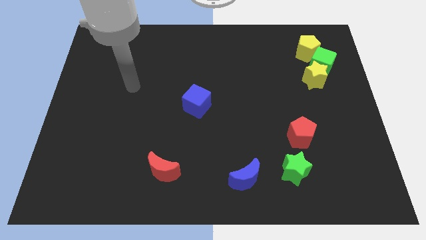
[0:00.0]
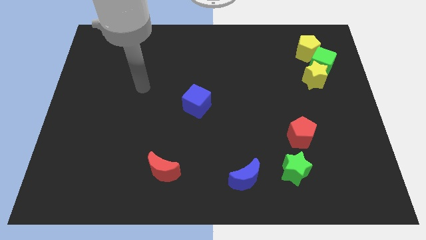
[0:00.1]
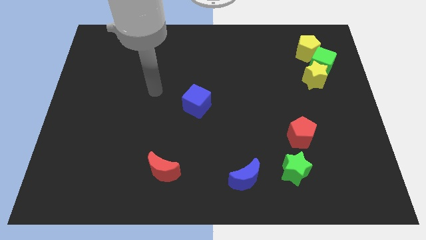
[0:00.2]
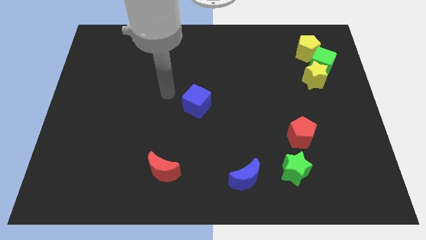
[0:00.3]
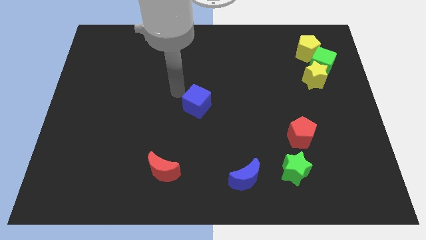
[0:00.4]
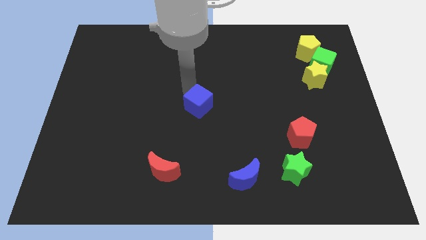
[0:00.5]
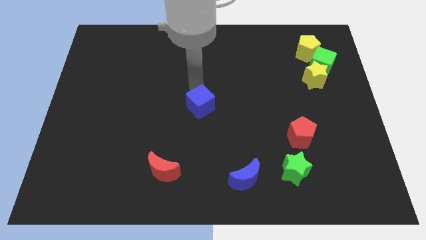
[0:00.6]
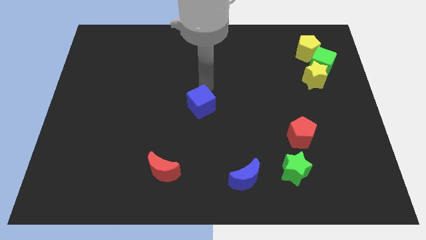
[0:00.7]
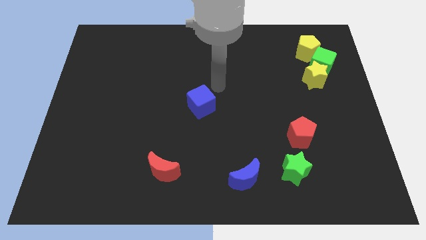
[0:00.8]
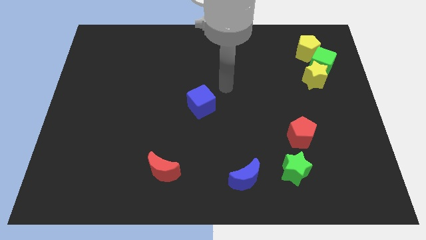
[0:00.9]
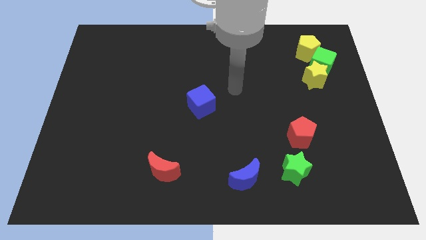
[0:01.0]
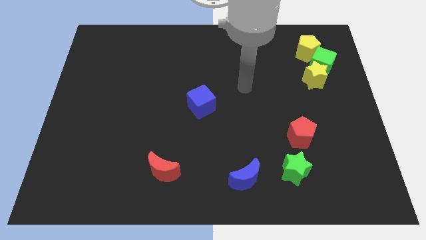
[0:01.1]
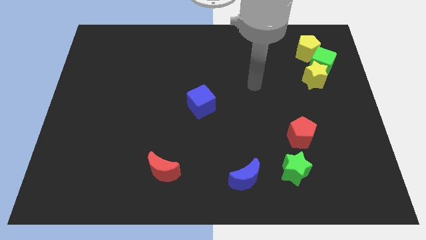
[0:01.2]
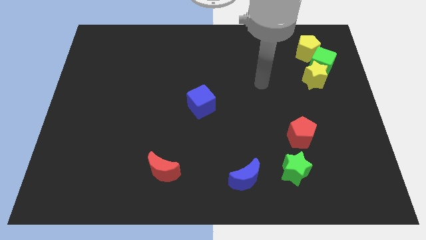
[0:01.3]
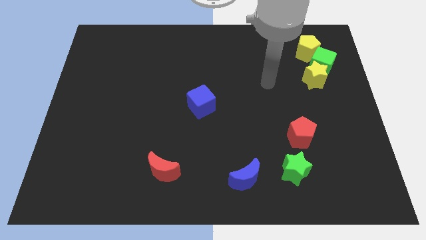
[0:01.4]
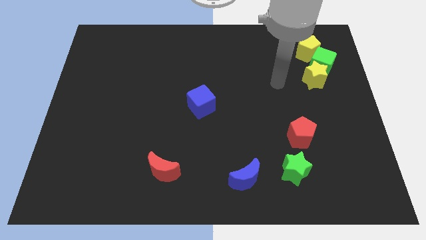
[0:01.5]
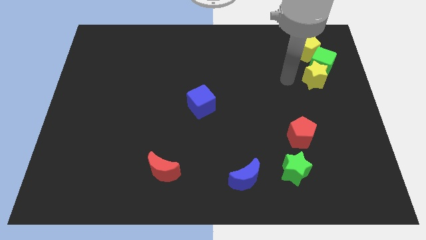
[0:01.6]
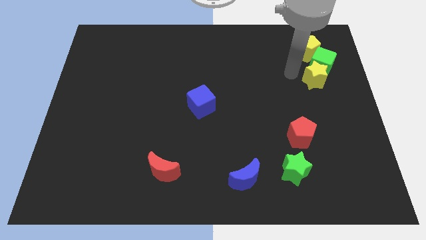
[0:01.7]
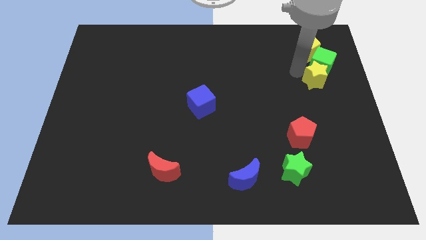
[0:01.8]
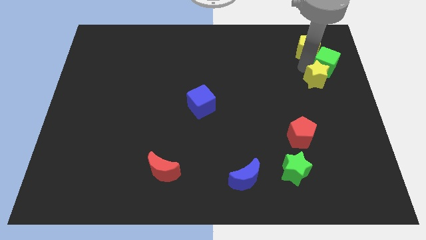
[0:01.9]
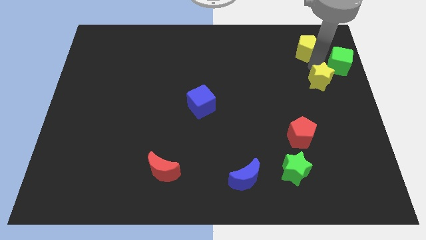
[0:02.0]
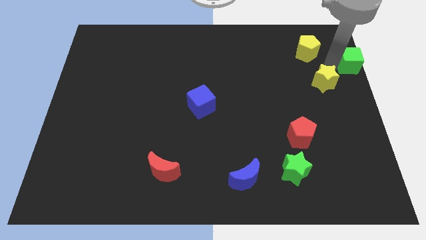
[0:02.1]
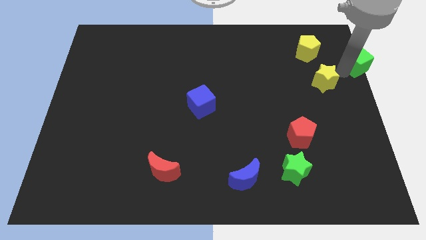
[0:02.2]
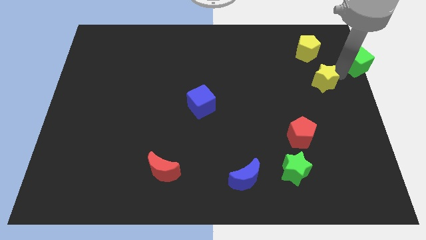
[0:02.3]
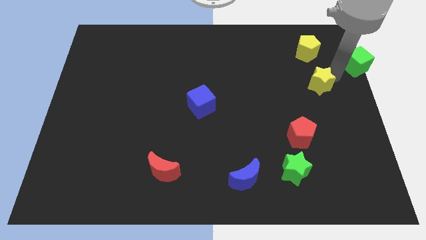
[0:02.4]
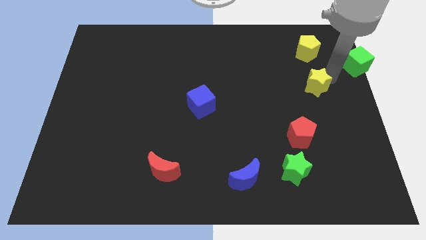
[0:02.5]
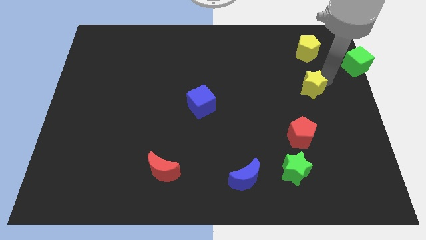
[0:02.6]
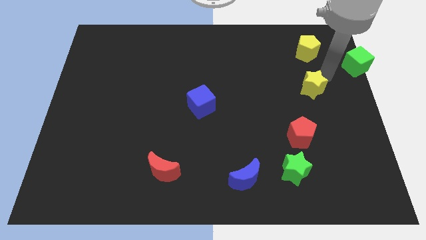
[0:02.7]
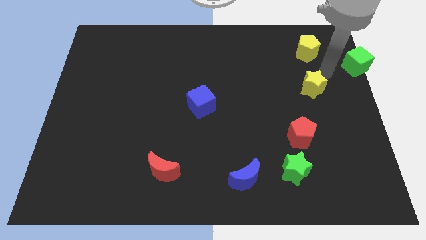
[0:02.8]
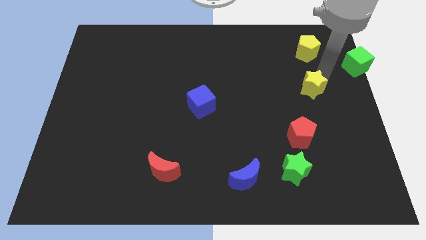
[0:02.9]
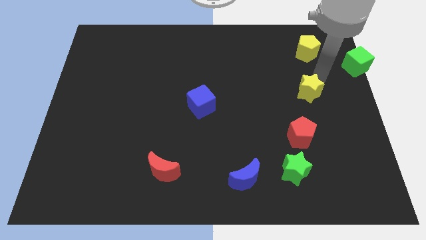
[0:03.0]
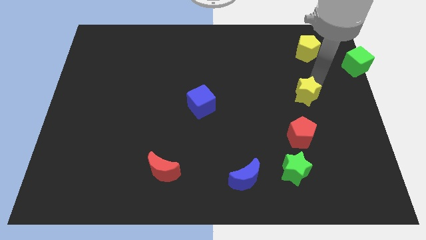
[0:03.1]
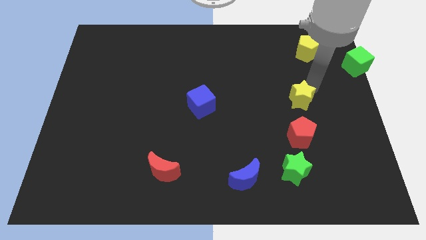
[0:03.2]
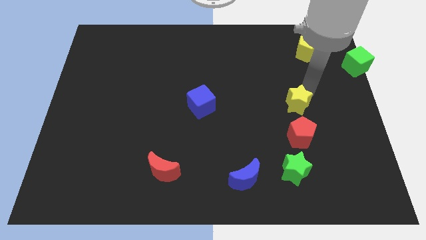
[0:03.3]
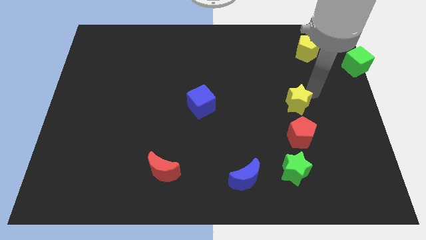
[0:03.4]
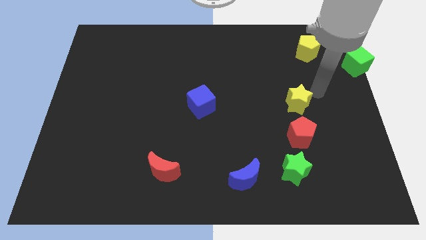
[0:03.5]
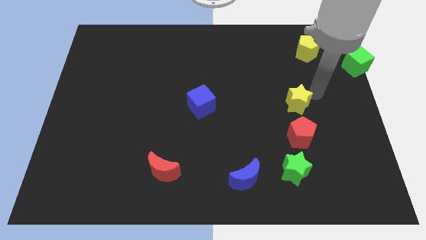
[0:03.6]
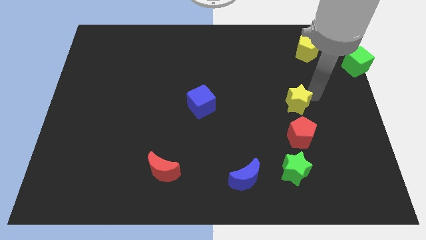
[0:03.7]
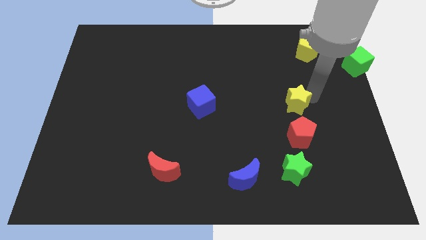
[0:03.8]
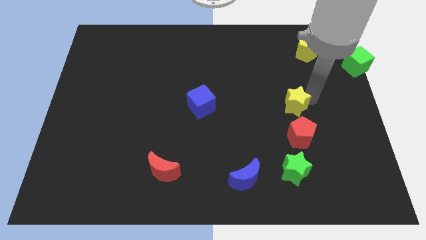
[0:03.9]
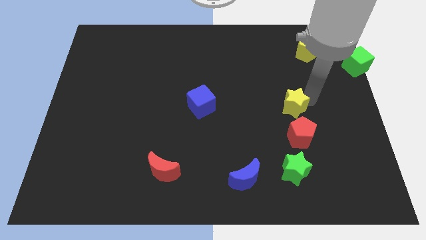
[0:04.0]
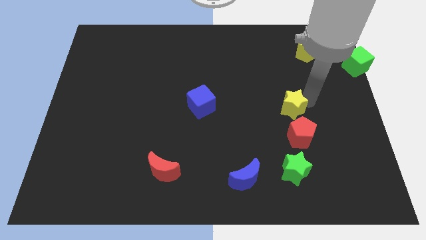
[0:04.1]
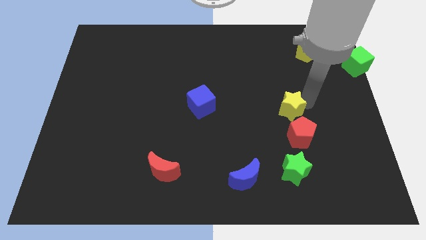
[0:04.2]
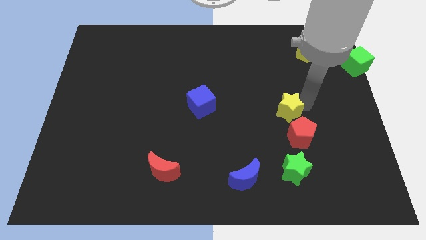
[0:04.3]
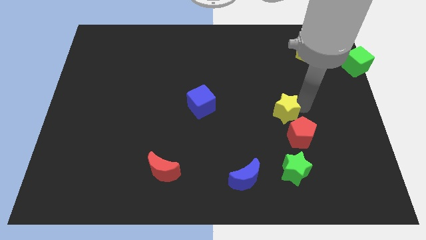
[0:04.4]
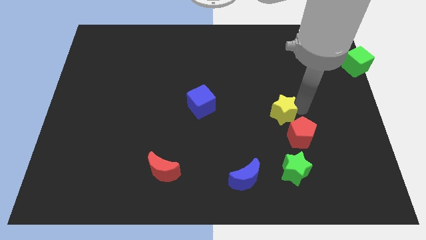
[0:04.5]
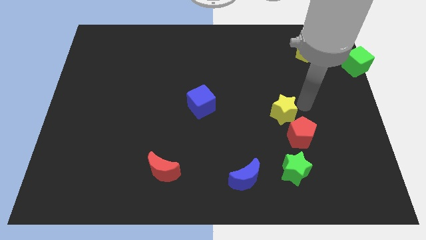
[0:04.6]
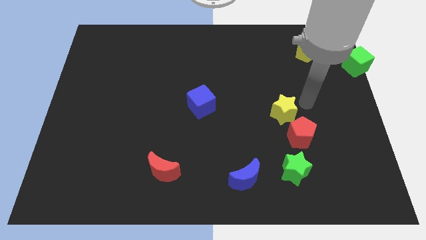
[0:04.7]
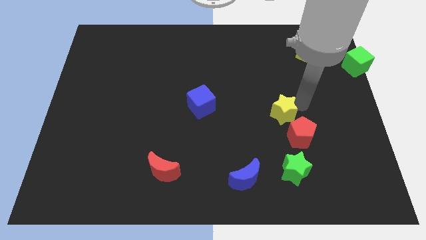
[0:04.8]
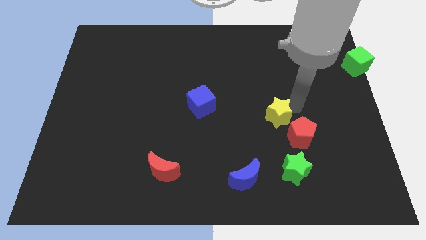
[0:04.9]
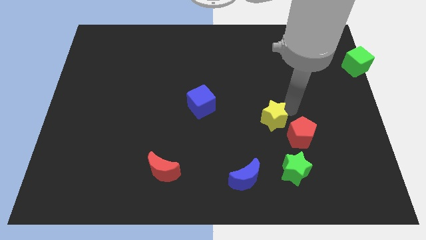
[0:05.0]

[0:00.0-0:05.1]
put the yellow star left of the red pentagon

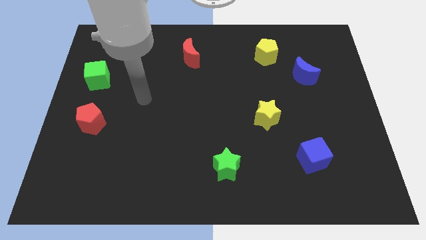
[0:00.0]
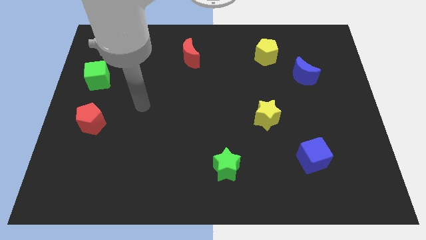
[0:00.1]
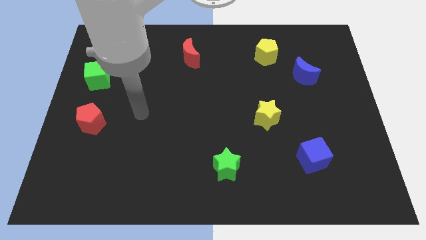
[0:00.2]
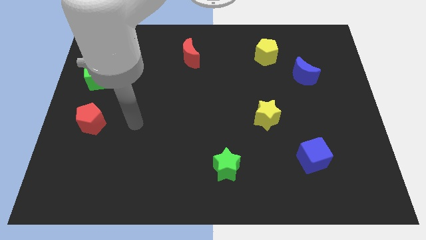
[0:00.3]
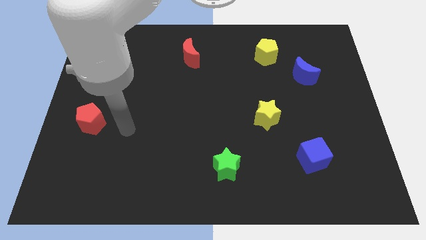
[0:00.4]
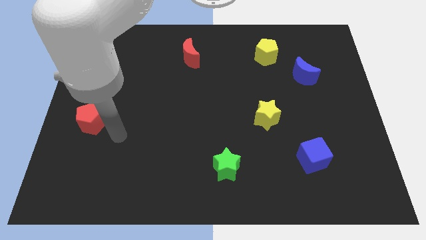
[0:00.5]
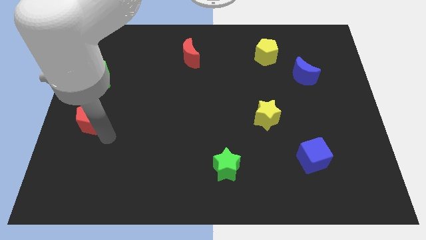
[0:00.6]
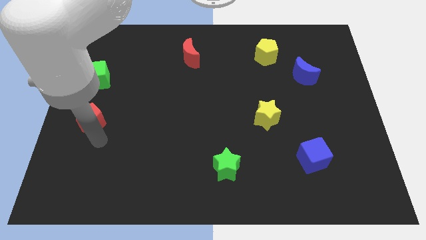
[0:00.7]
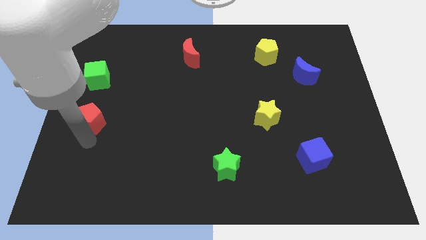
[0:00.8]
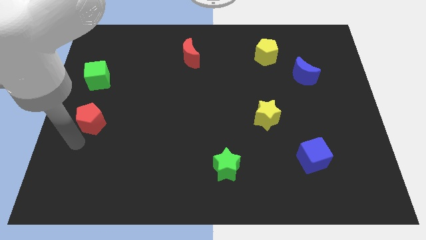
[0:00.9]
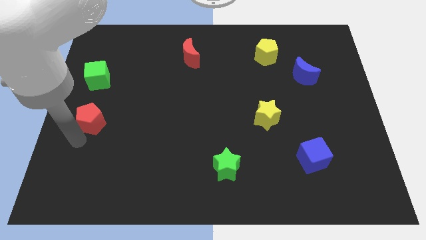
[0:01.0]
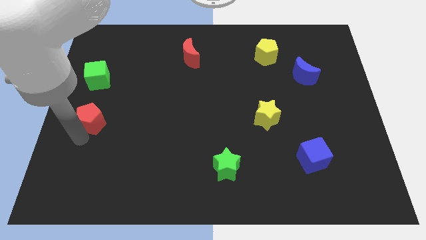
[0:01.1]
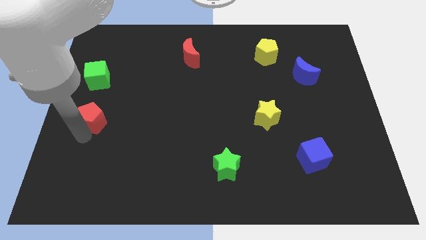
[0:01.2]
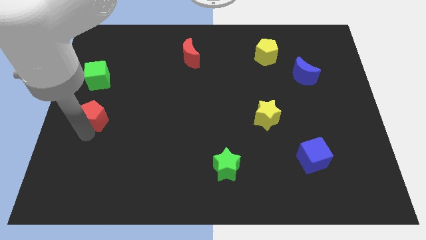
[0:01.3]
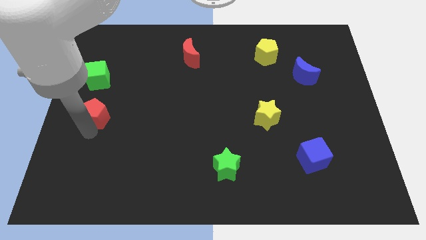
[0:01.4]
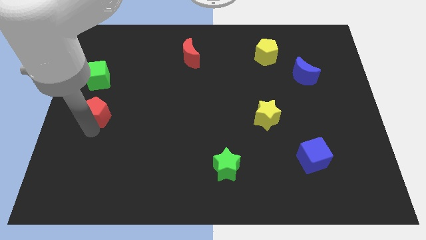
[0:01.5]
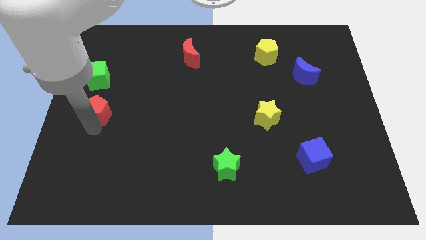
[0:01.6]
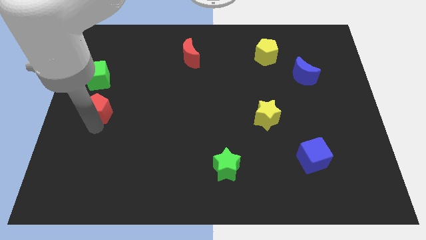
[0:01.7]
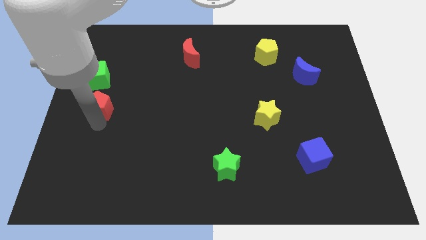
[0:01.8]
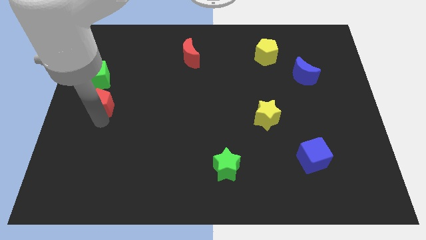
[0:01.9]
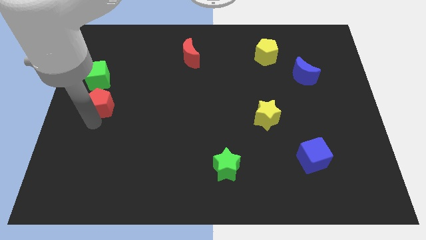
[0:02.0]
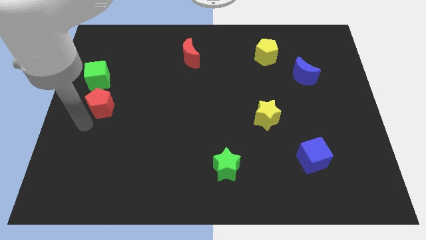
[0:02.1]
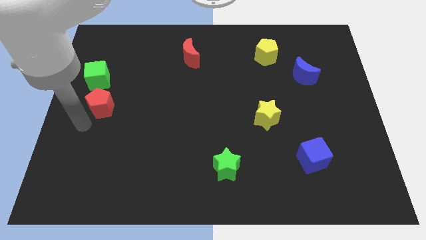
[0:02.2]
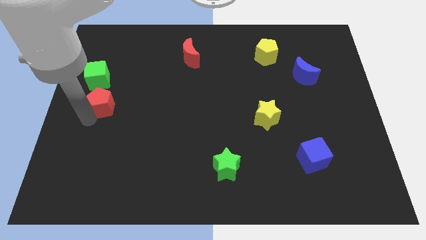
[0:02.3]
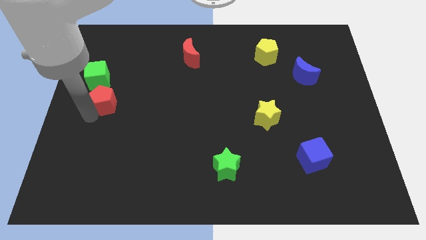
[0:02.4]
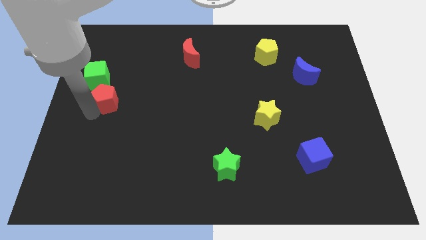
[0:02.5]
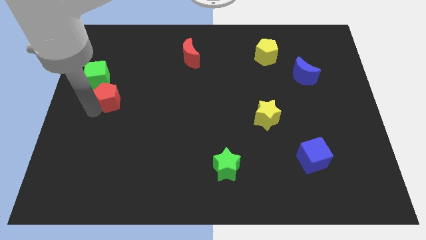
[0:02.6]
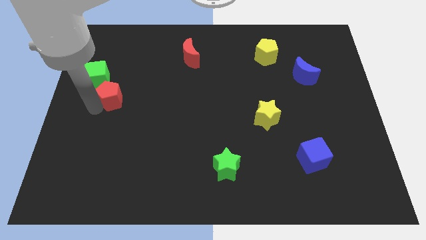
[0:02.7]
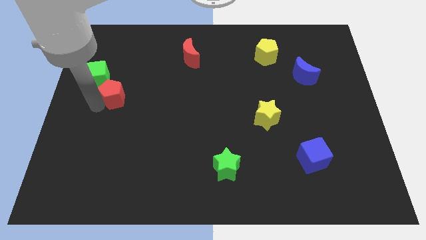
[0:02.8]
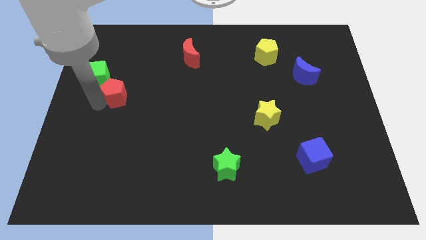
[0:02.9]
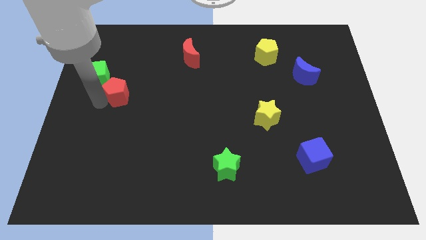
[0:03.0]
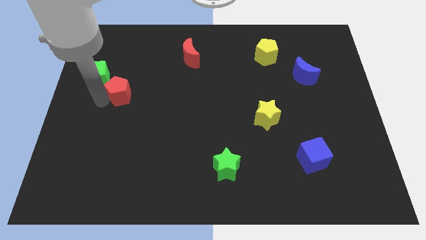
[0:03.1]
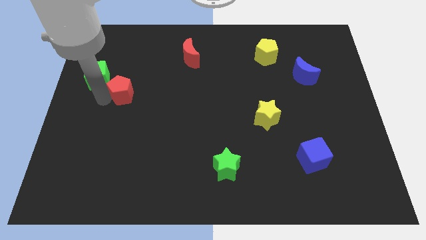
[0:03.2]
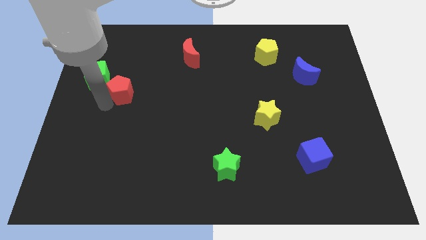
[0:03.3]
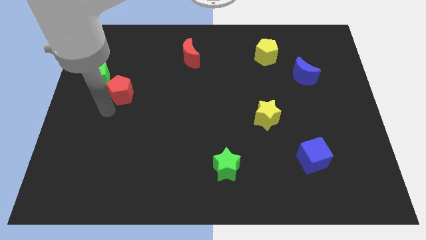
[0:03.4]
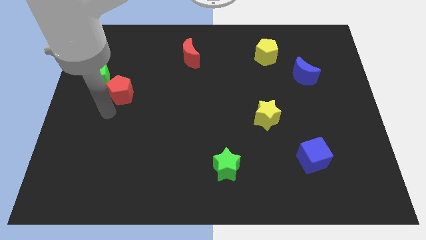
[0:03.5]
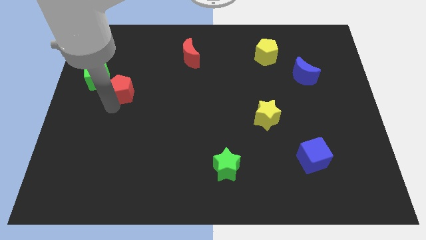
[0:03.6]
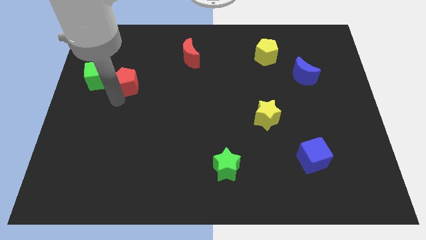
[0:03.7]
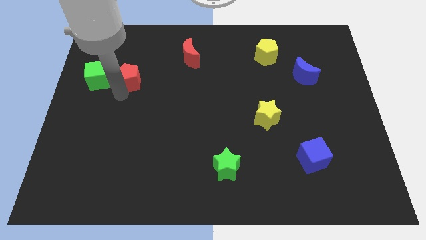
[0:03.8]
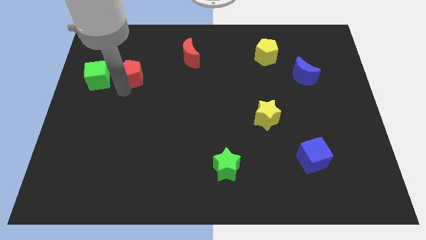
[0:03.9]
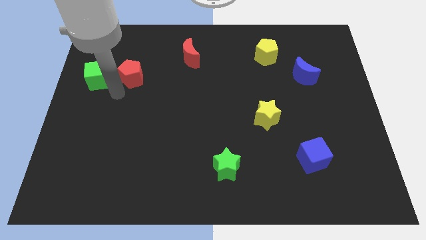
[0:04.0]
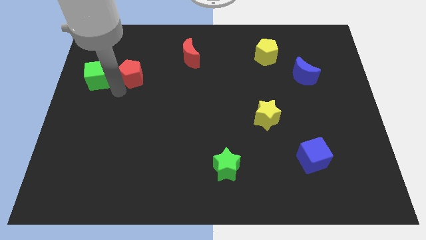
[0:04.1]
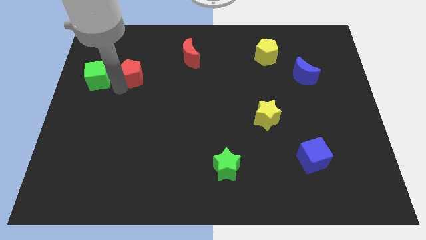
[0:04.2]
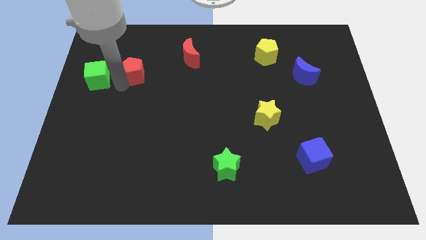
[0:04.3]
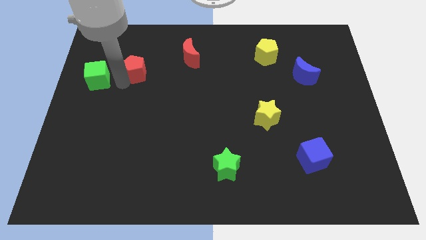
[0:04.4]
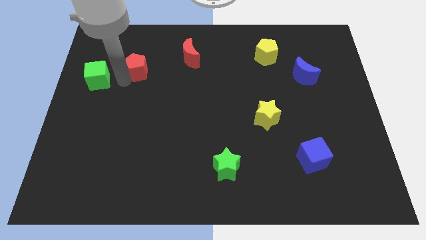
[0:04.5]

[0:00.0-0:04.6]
put the red pentagon to the left side of the red moon
